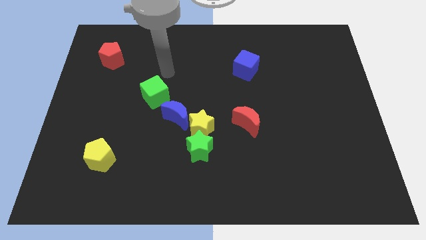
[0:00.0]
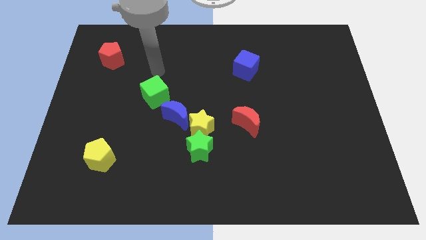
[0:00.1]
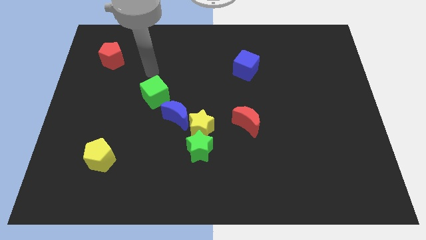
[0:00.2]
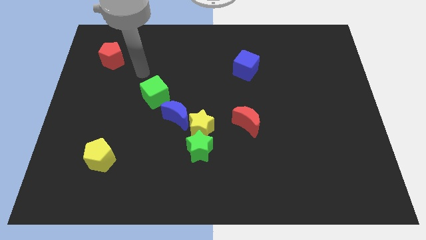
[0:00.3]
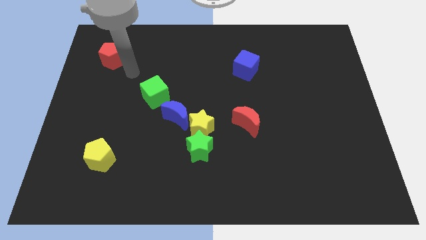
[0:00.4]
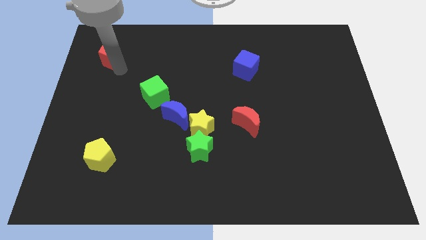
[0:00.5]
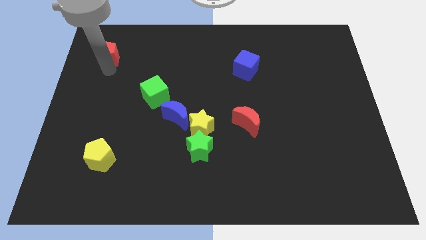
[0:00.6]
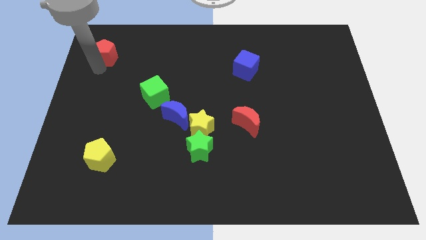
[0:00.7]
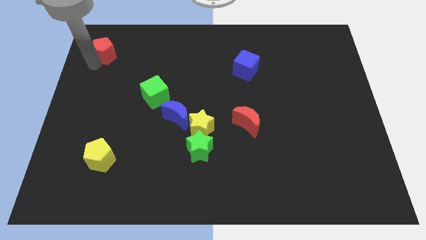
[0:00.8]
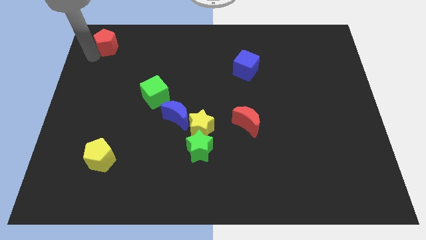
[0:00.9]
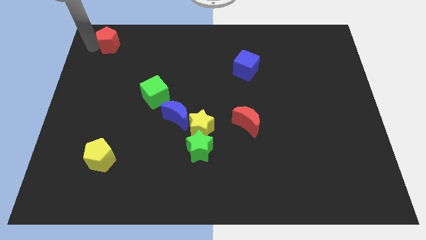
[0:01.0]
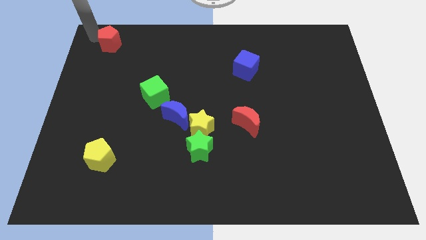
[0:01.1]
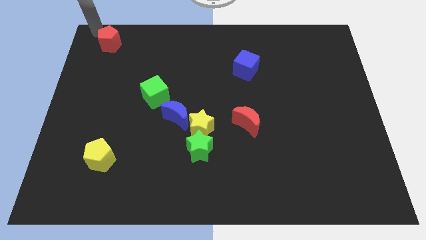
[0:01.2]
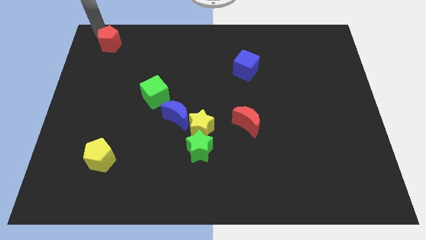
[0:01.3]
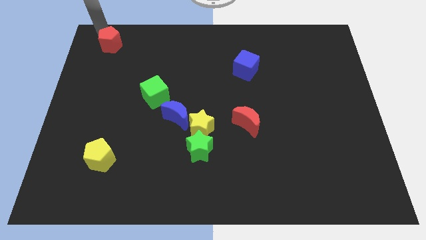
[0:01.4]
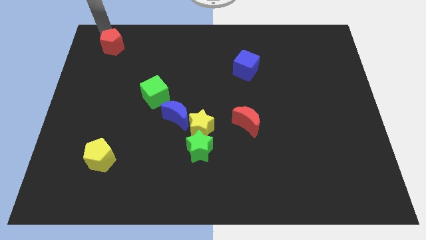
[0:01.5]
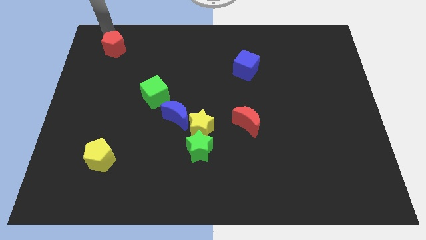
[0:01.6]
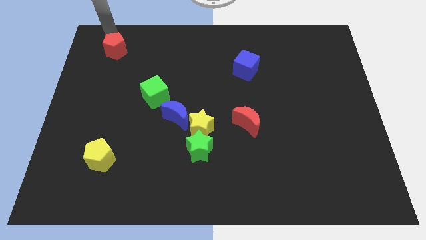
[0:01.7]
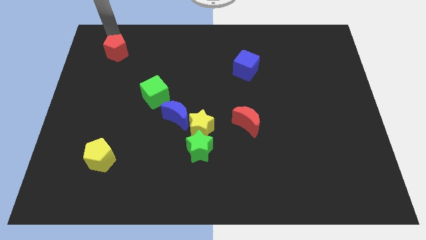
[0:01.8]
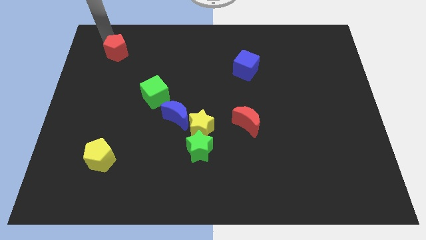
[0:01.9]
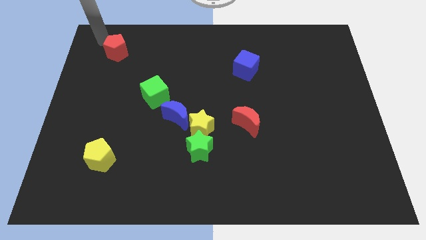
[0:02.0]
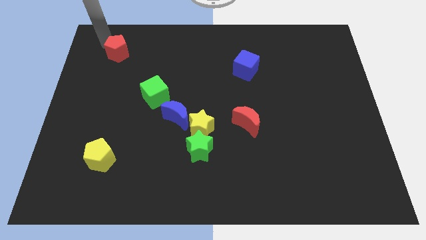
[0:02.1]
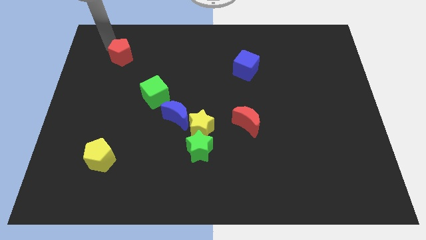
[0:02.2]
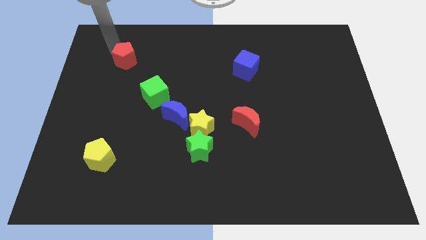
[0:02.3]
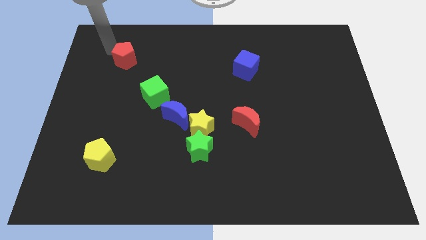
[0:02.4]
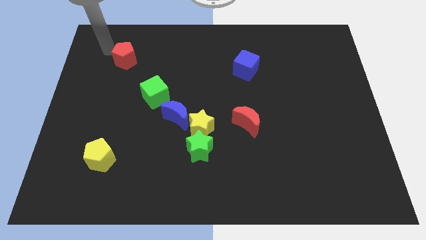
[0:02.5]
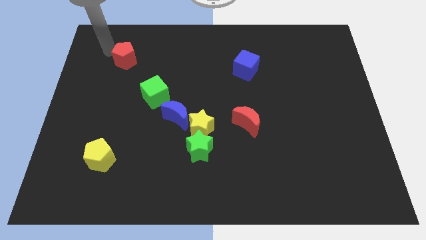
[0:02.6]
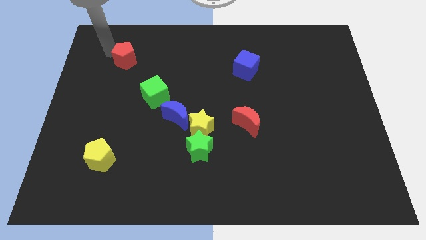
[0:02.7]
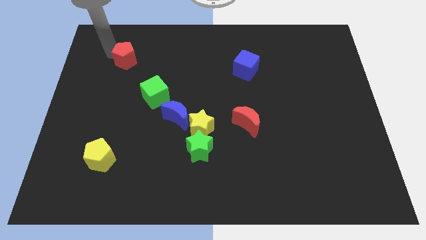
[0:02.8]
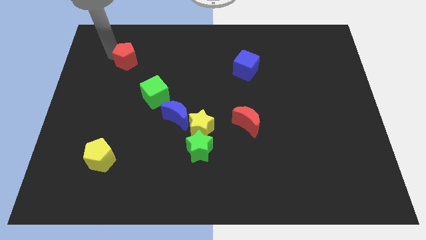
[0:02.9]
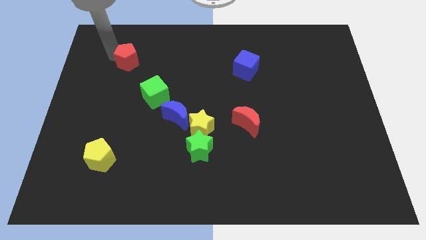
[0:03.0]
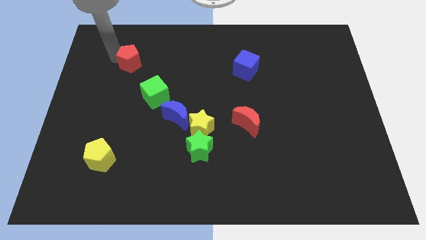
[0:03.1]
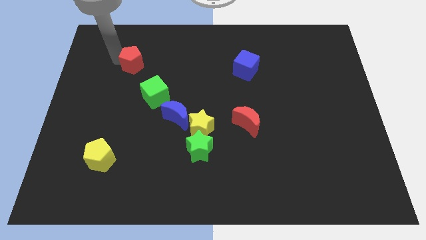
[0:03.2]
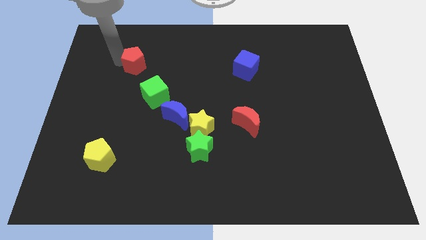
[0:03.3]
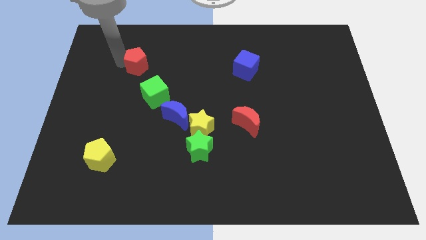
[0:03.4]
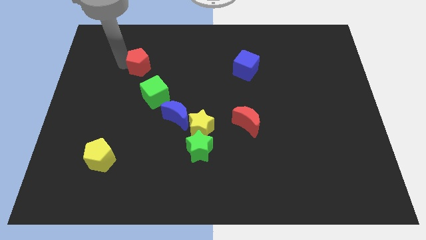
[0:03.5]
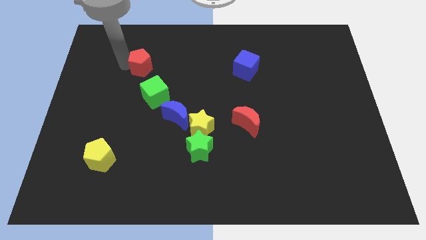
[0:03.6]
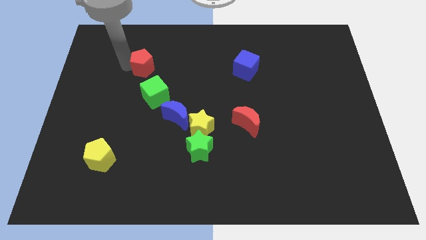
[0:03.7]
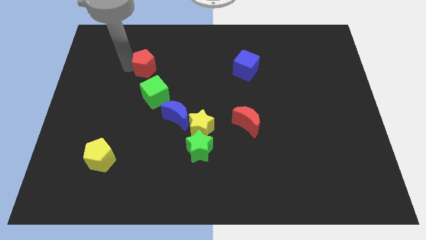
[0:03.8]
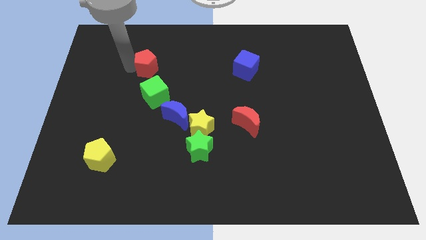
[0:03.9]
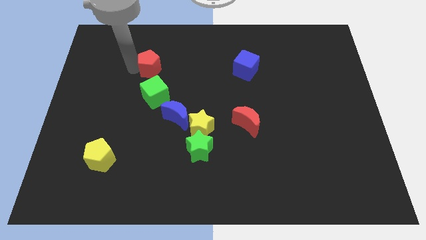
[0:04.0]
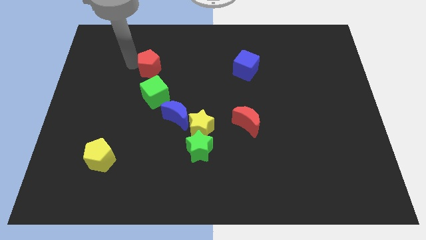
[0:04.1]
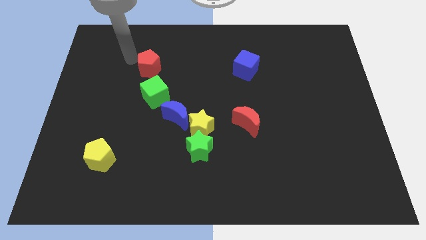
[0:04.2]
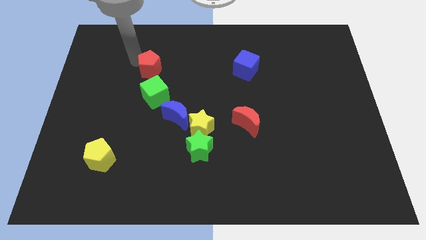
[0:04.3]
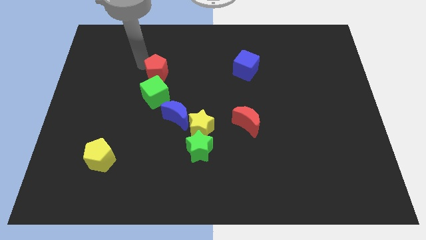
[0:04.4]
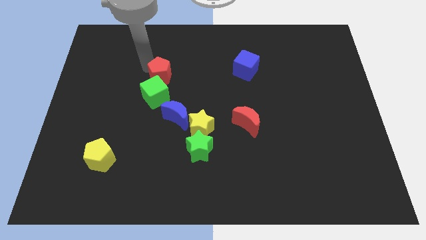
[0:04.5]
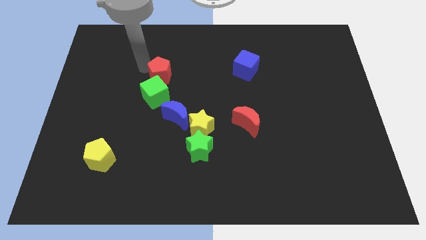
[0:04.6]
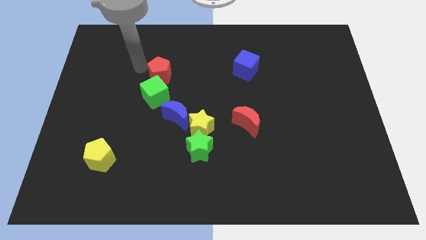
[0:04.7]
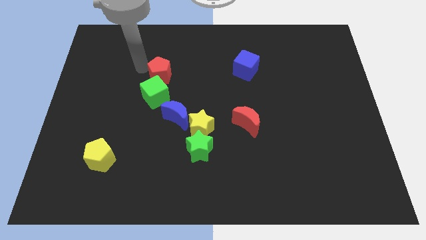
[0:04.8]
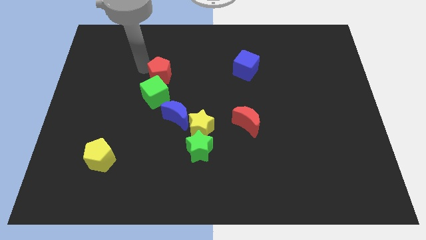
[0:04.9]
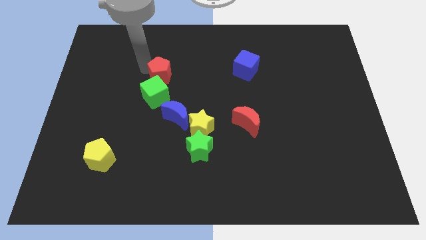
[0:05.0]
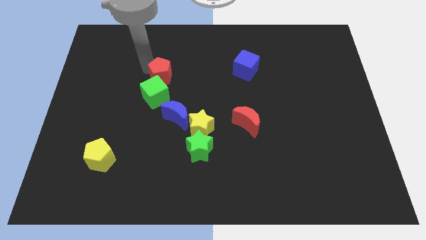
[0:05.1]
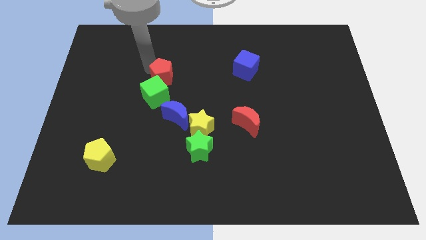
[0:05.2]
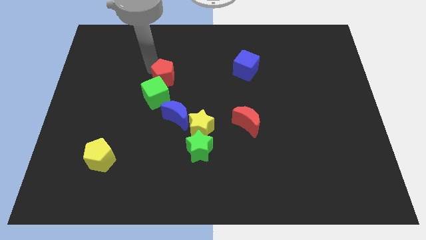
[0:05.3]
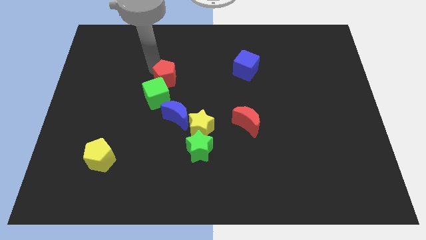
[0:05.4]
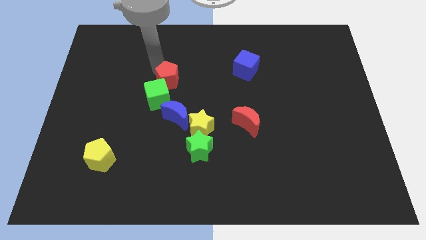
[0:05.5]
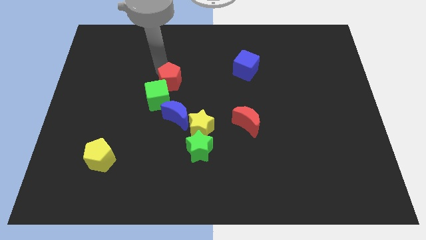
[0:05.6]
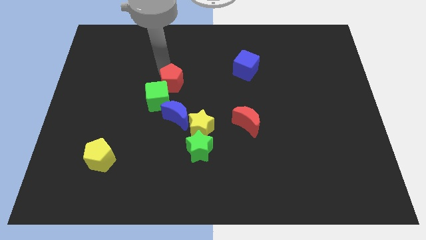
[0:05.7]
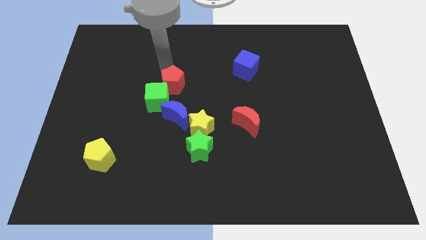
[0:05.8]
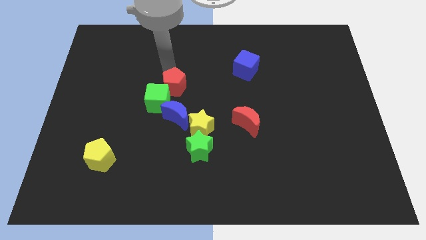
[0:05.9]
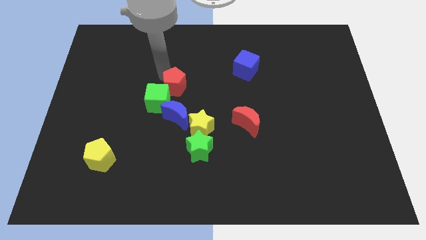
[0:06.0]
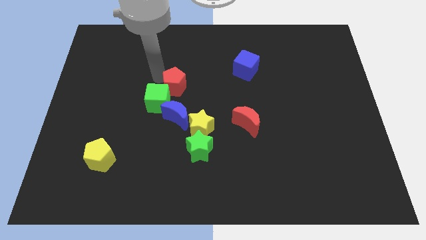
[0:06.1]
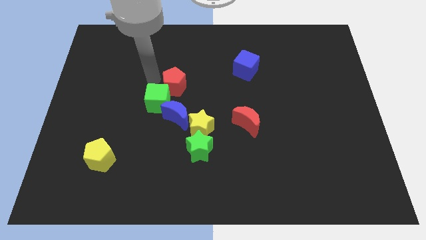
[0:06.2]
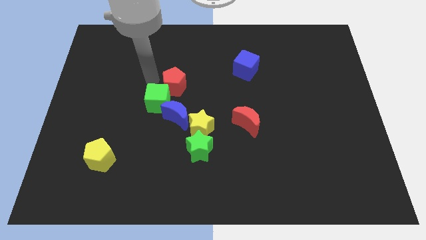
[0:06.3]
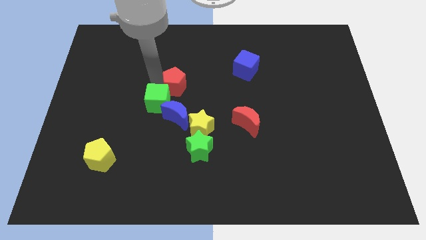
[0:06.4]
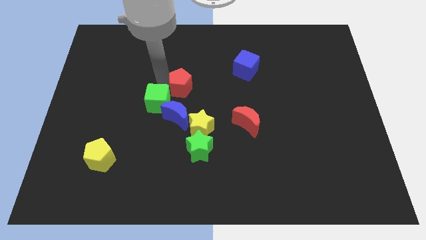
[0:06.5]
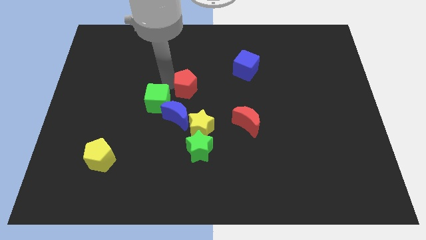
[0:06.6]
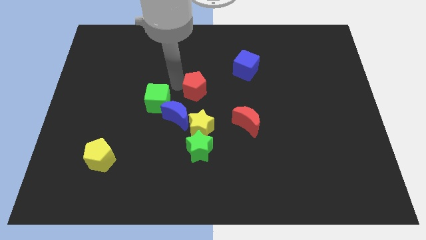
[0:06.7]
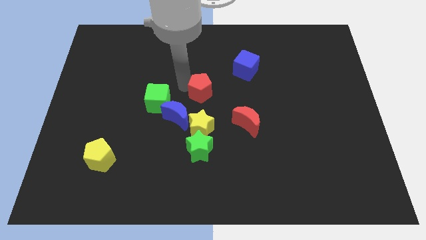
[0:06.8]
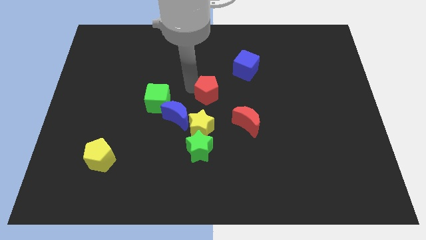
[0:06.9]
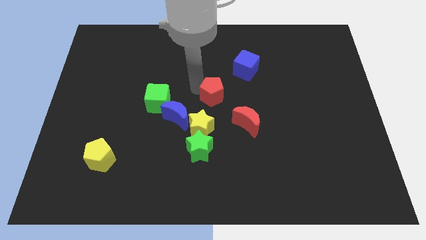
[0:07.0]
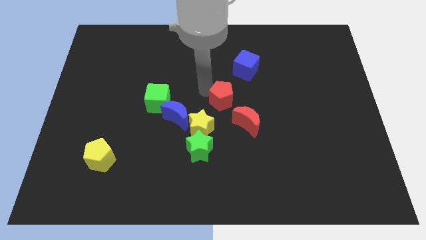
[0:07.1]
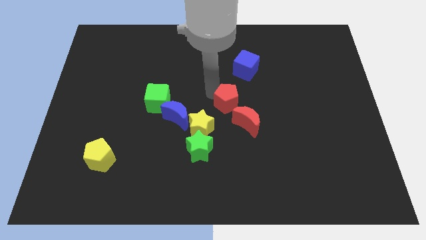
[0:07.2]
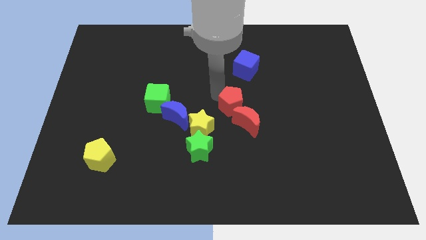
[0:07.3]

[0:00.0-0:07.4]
put the red pentagon to the red moon

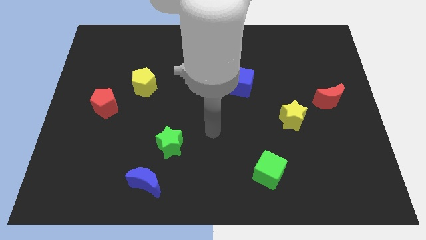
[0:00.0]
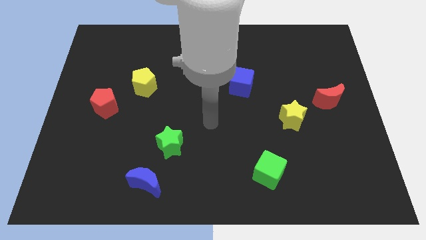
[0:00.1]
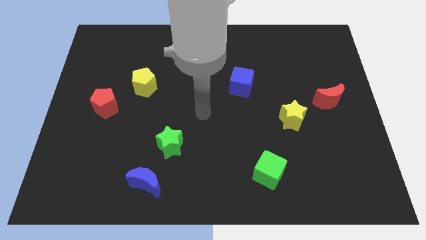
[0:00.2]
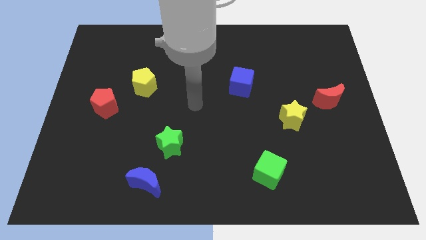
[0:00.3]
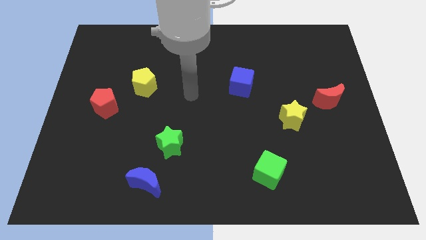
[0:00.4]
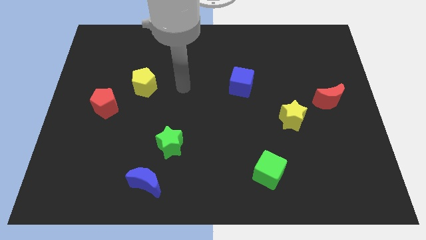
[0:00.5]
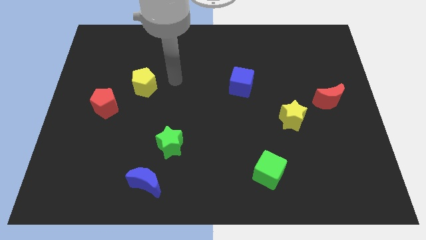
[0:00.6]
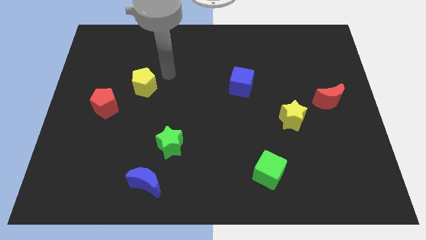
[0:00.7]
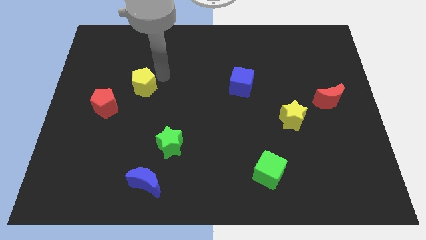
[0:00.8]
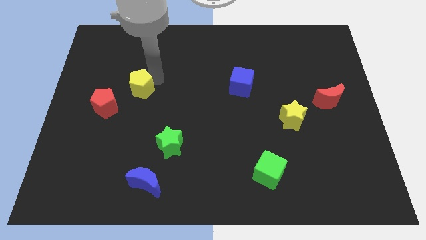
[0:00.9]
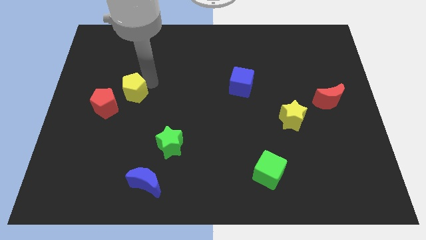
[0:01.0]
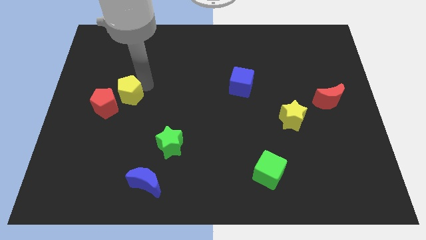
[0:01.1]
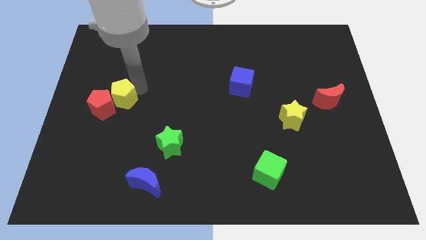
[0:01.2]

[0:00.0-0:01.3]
put the yellow pentagon towards the red pentagon
